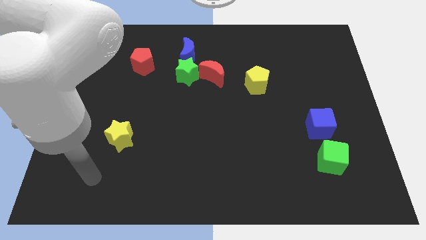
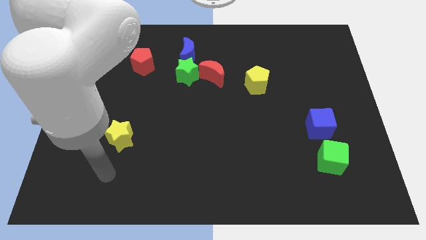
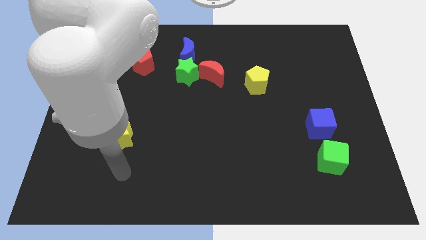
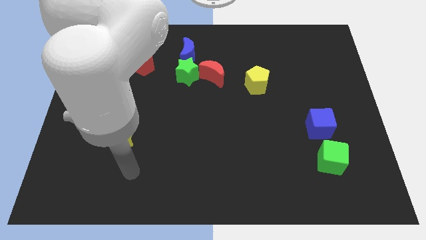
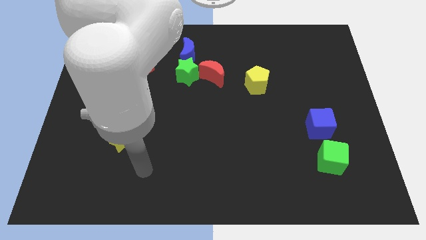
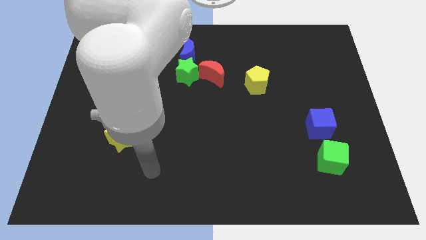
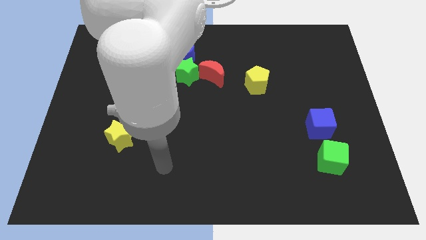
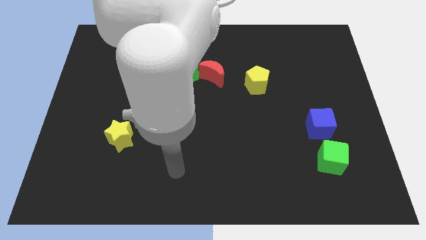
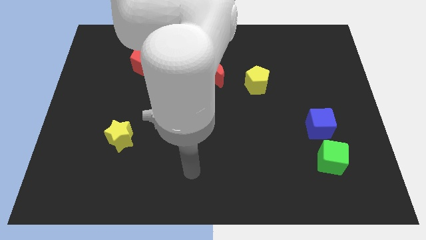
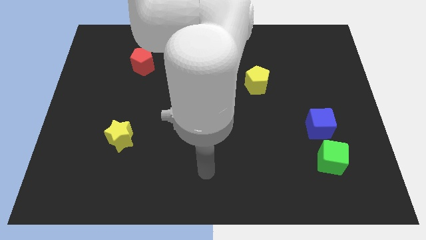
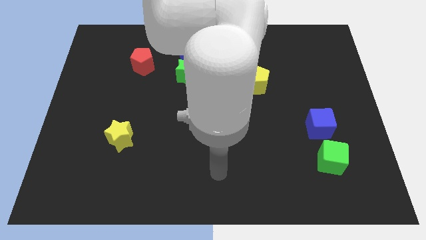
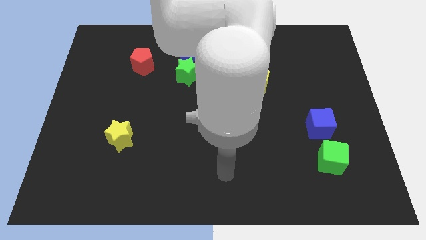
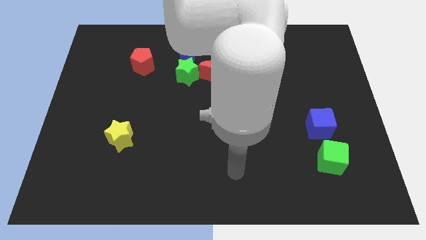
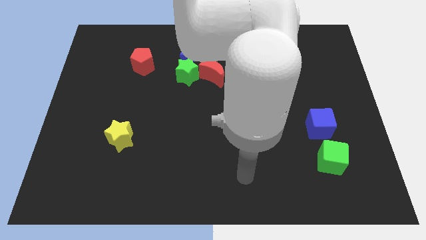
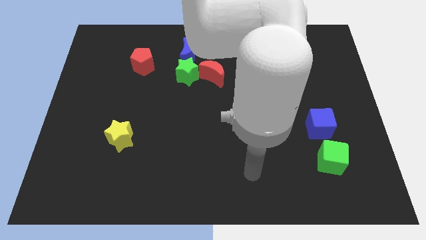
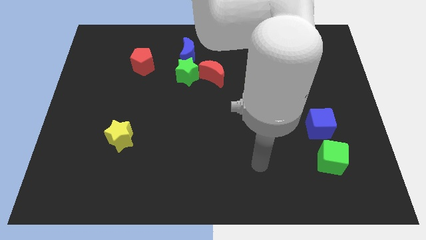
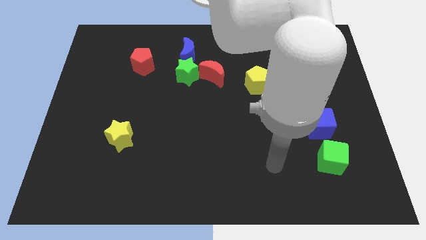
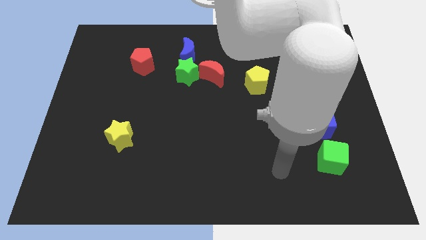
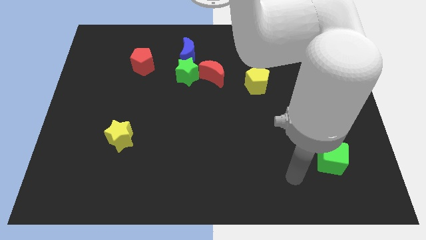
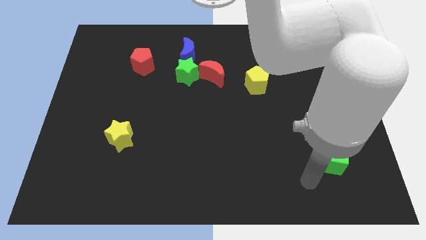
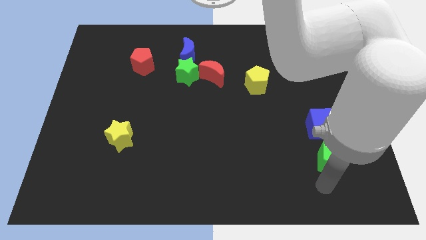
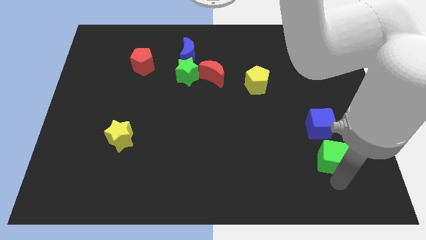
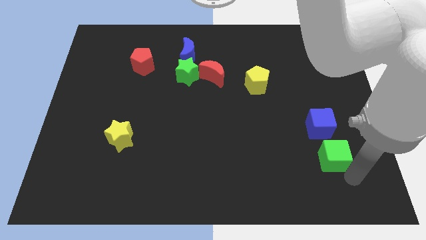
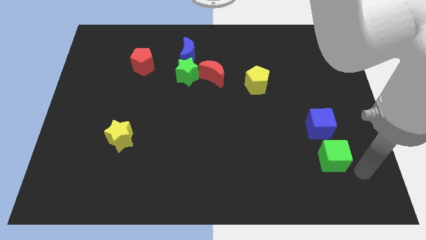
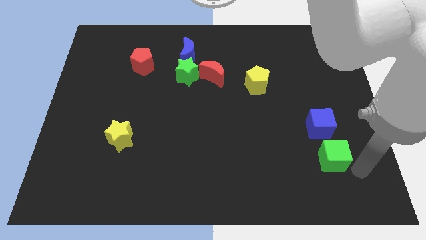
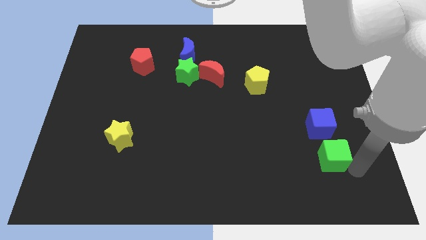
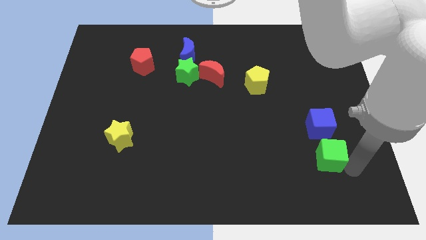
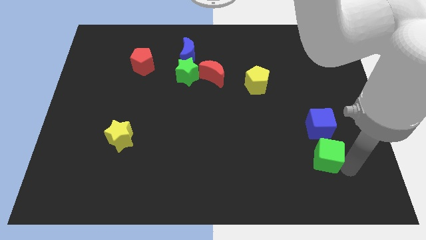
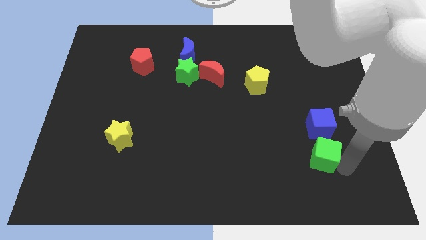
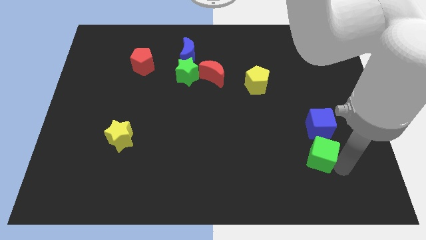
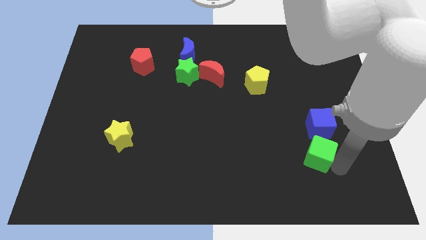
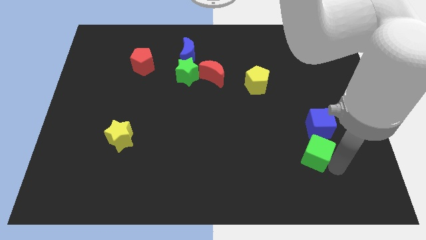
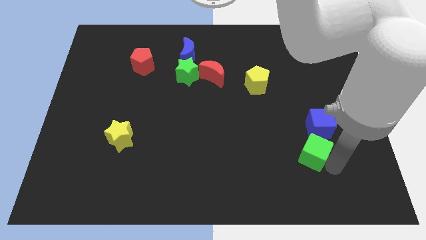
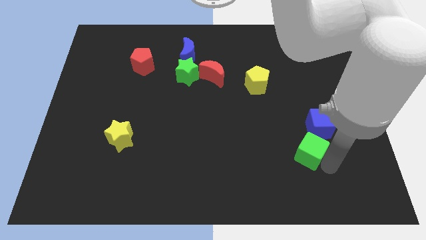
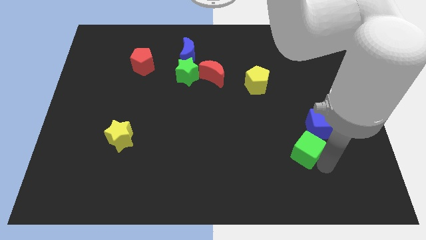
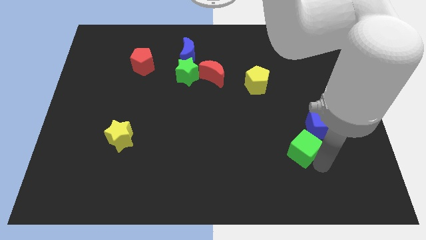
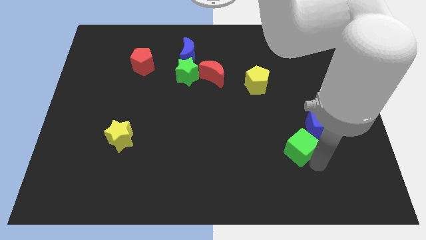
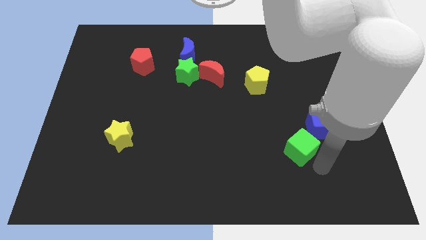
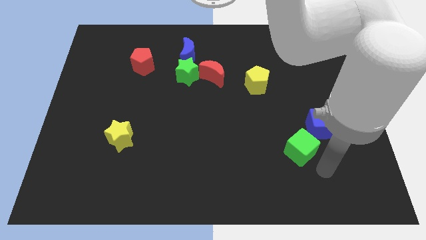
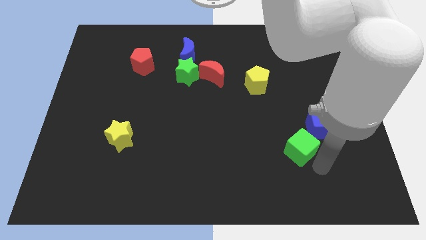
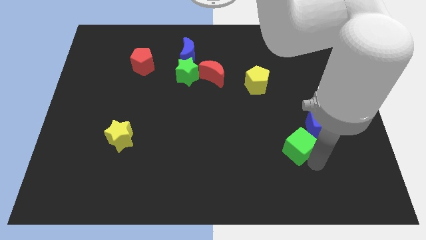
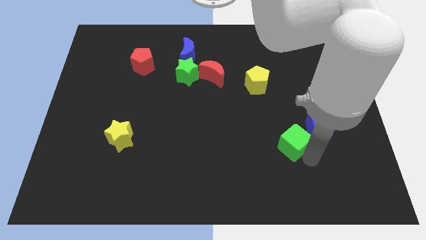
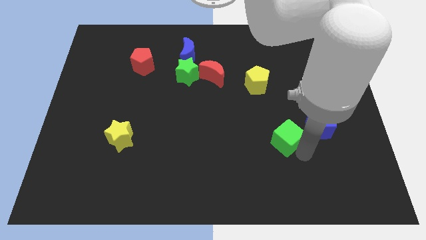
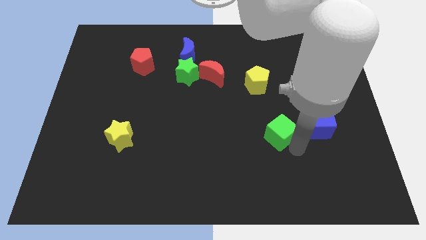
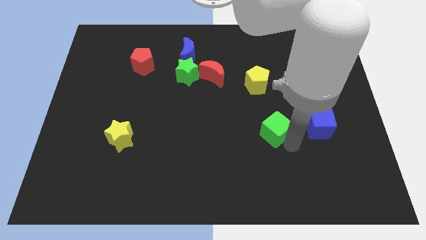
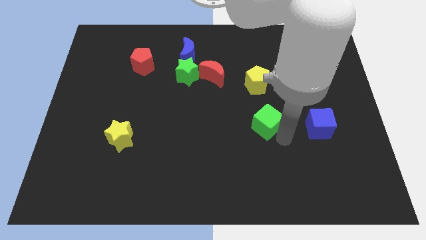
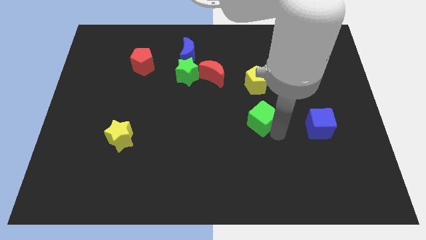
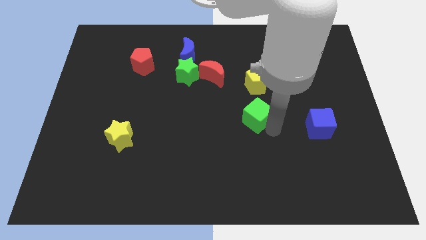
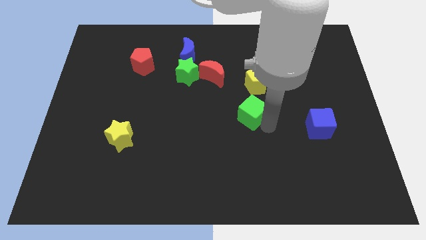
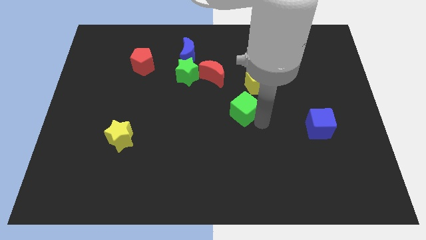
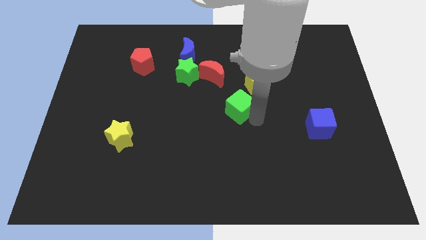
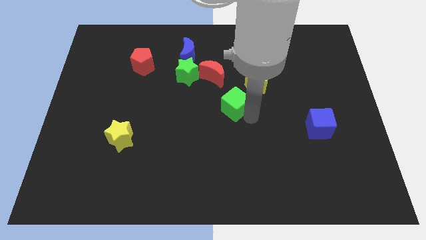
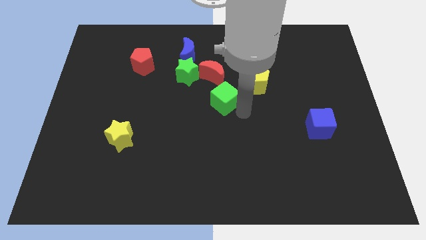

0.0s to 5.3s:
push the green cube diagonally down and to the right of the green star

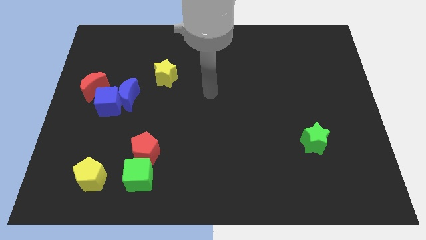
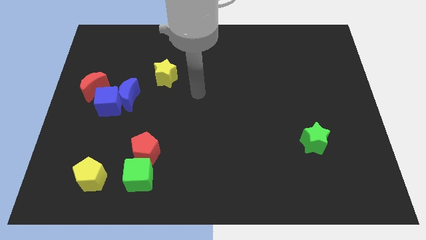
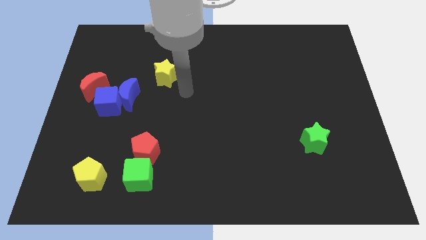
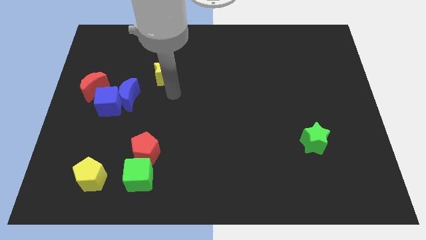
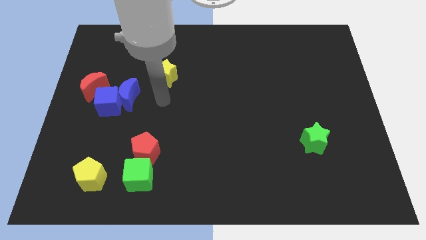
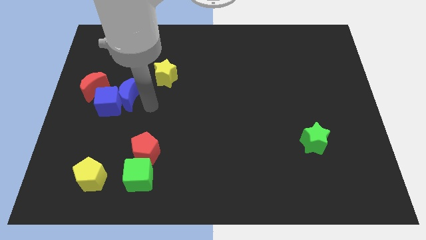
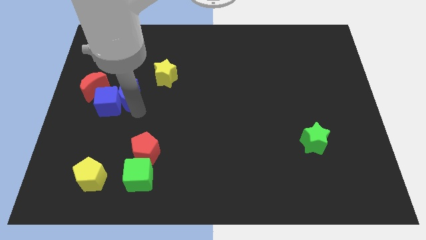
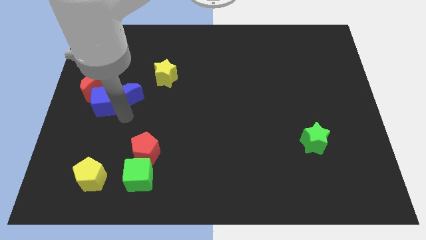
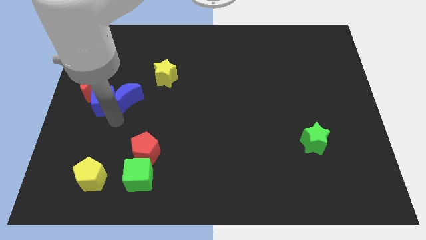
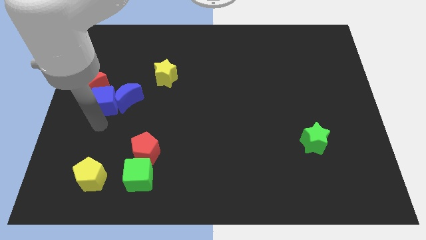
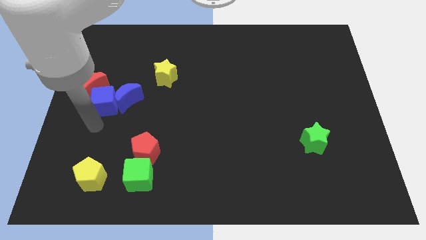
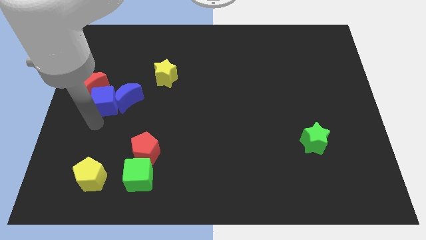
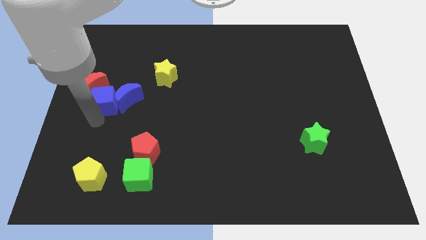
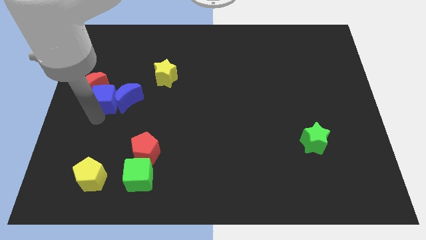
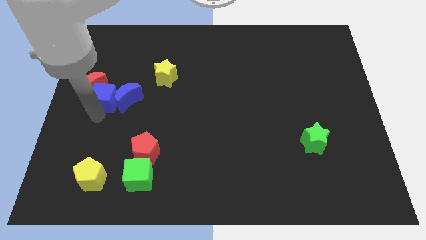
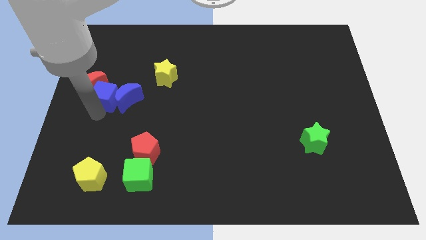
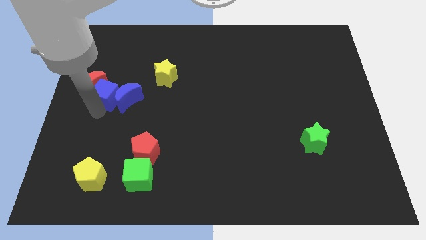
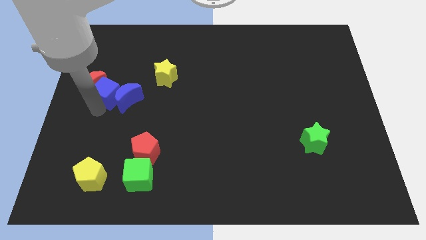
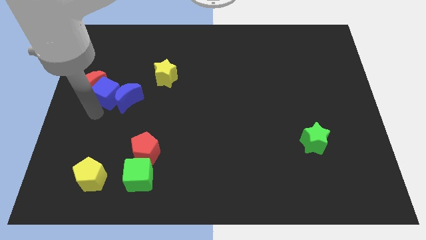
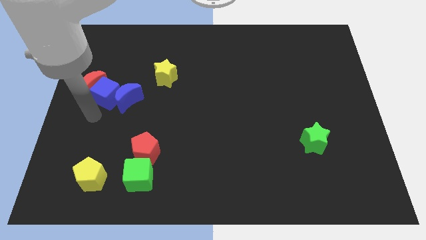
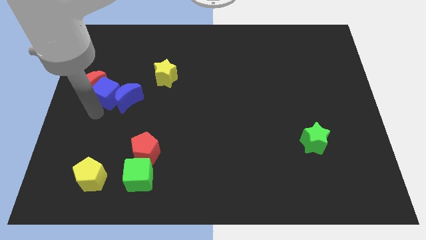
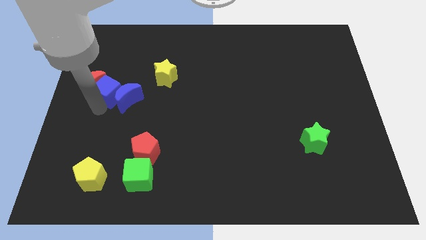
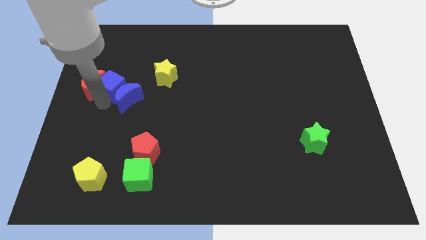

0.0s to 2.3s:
put the blue cube to the left side of the yellow star
